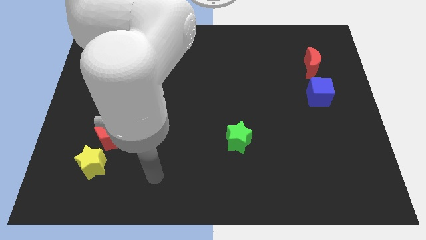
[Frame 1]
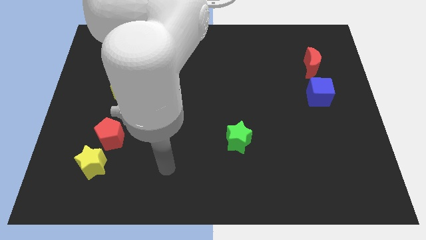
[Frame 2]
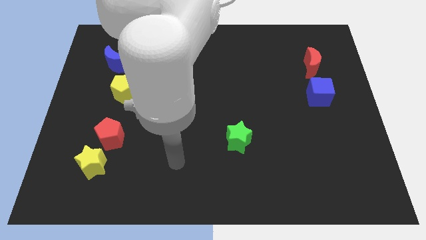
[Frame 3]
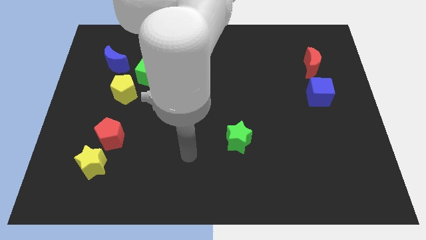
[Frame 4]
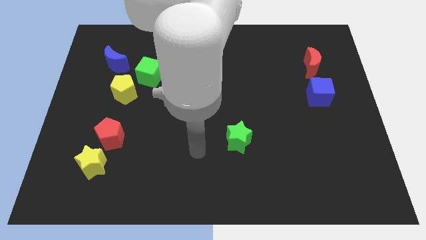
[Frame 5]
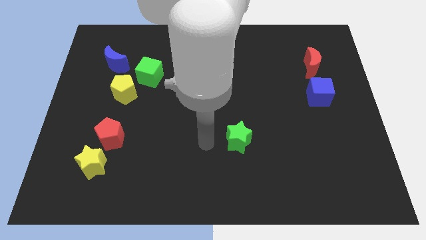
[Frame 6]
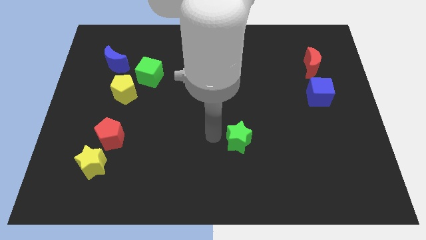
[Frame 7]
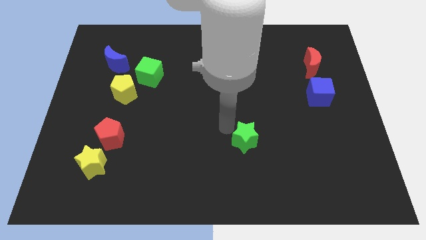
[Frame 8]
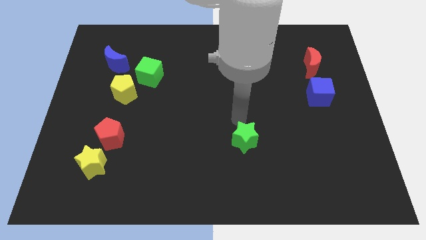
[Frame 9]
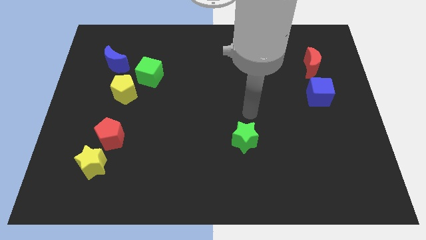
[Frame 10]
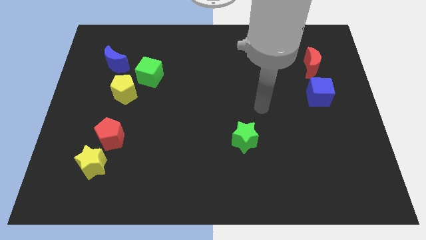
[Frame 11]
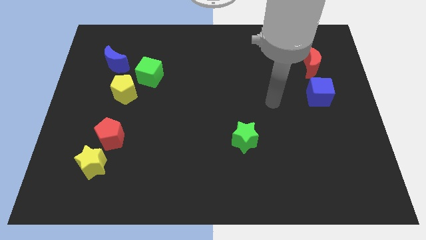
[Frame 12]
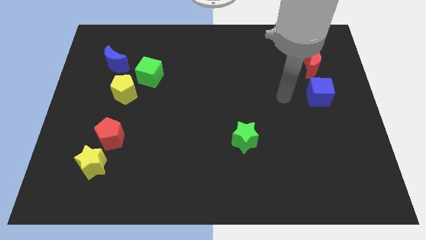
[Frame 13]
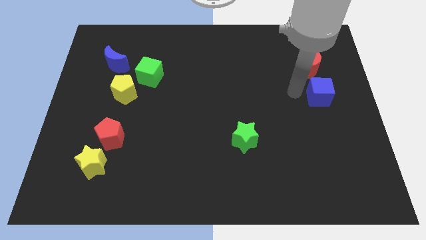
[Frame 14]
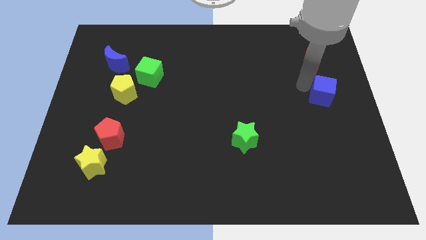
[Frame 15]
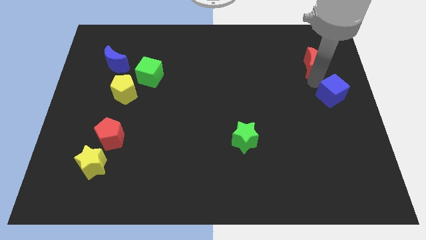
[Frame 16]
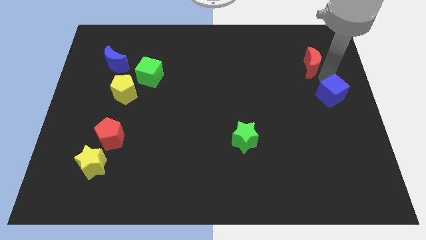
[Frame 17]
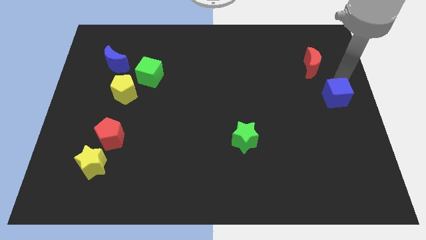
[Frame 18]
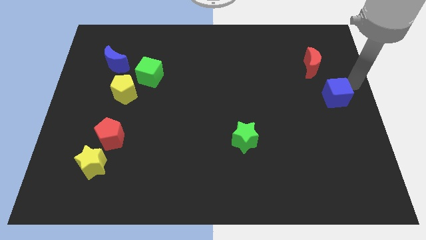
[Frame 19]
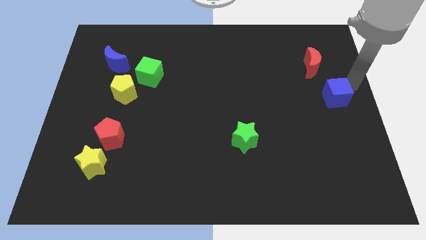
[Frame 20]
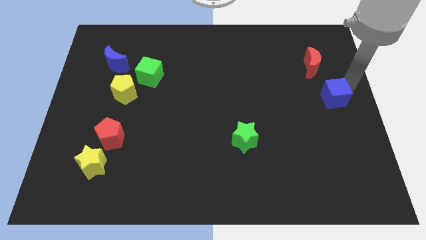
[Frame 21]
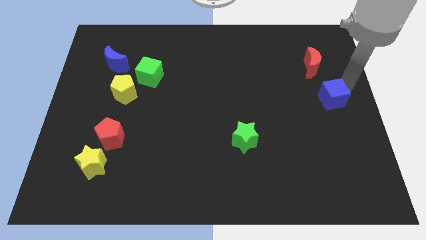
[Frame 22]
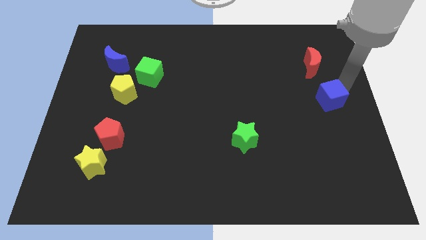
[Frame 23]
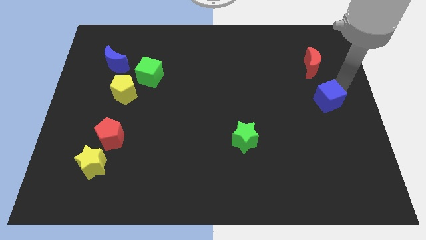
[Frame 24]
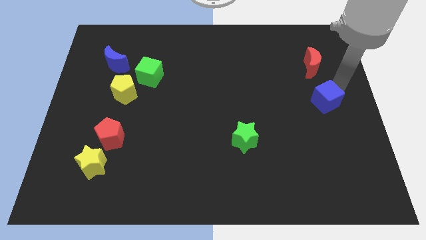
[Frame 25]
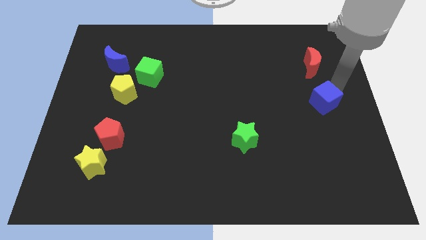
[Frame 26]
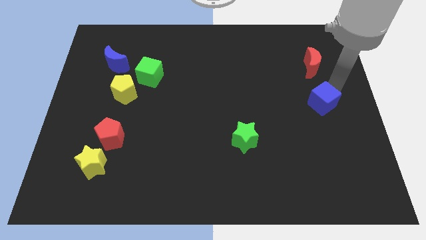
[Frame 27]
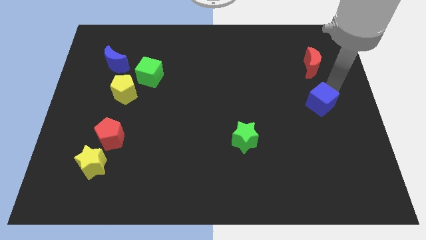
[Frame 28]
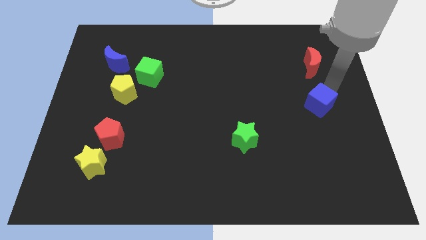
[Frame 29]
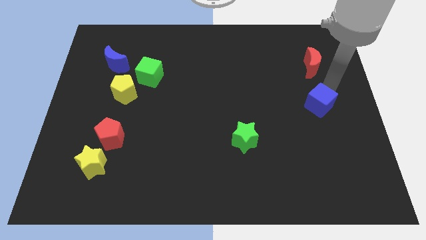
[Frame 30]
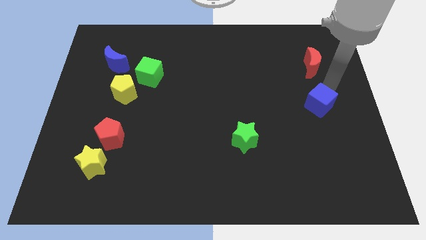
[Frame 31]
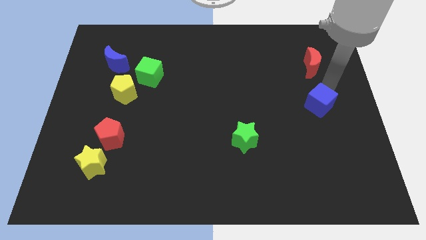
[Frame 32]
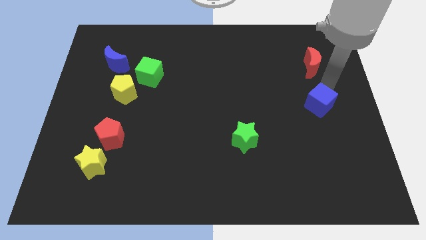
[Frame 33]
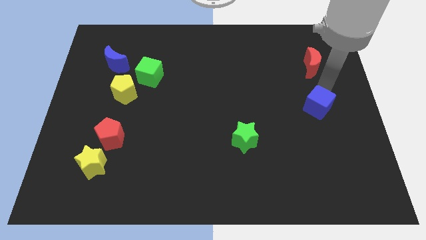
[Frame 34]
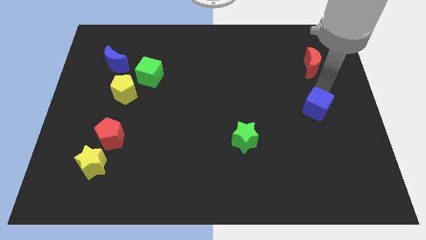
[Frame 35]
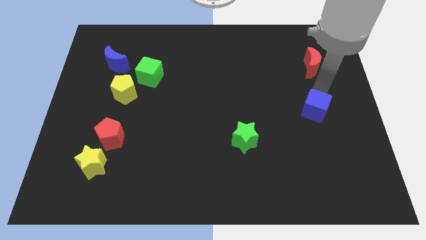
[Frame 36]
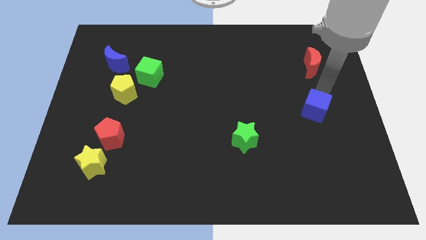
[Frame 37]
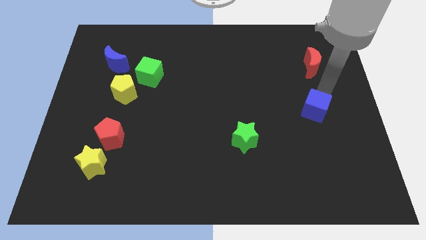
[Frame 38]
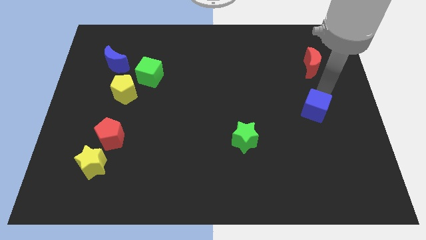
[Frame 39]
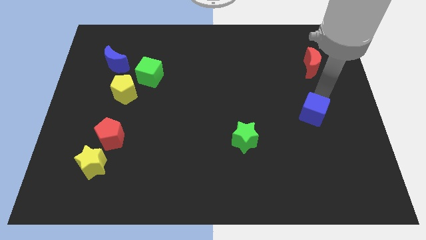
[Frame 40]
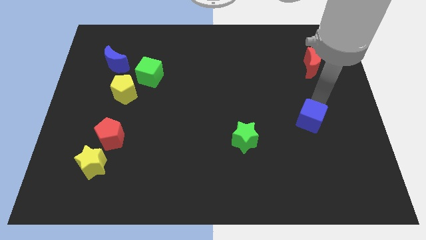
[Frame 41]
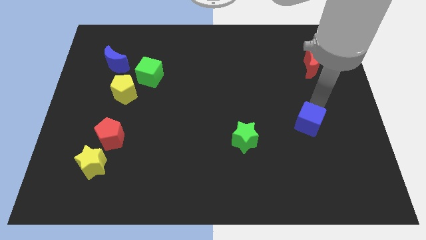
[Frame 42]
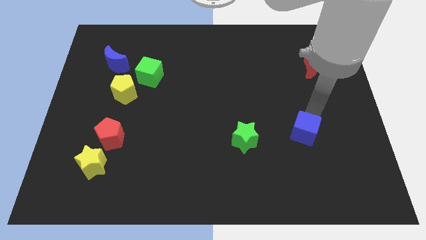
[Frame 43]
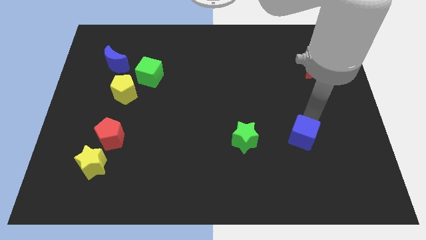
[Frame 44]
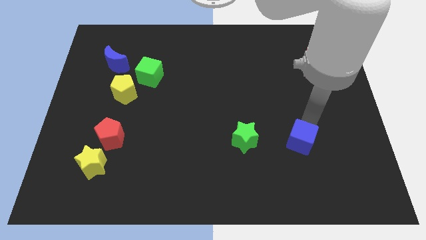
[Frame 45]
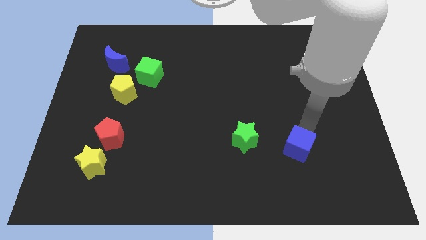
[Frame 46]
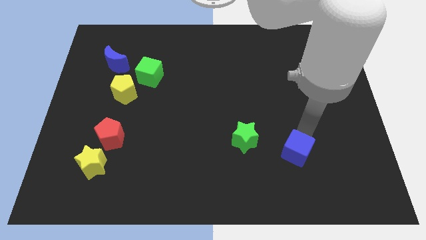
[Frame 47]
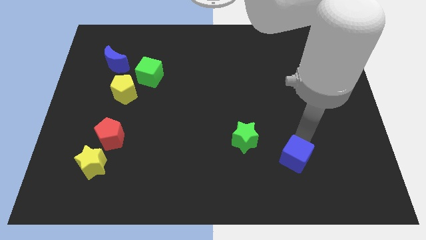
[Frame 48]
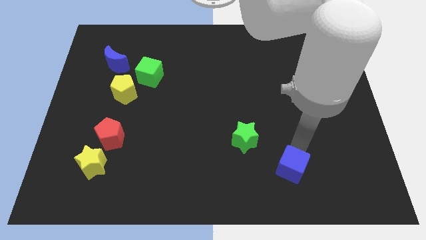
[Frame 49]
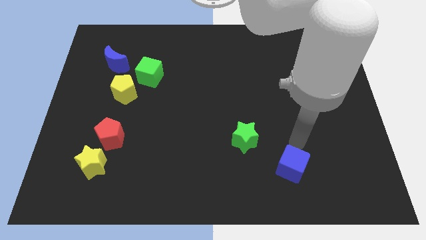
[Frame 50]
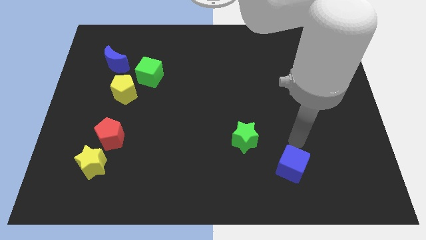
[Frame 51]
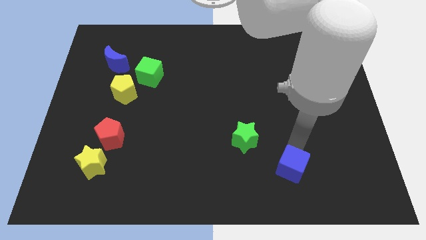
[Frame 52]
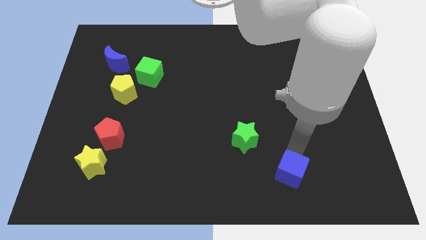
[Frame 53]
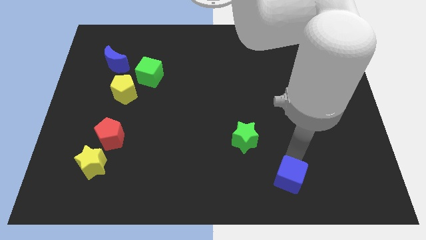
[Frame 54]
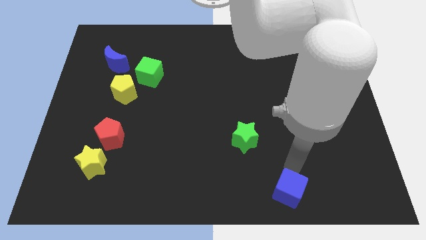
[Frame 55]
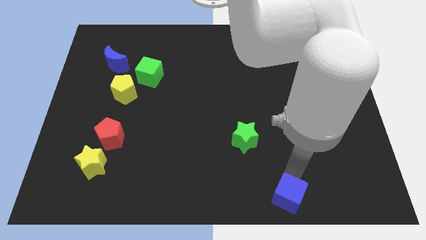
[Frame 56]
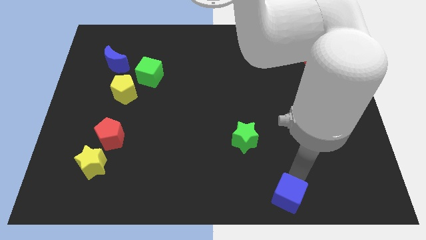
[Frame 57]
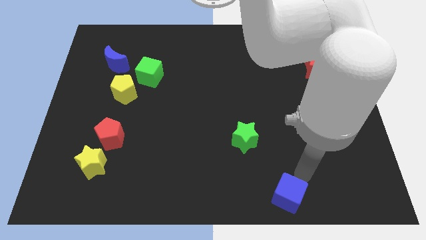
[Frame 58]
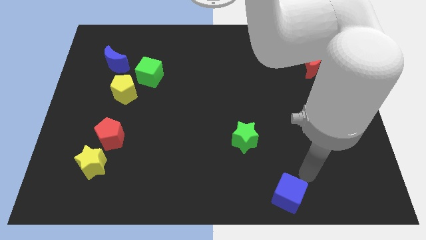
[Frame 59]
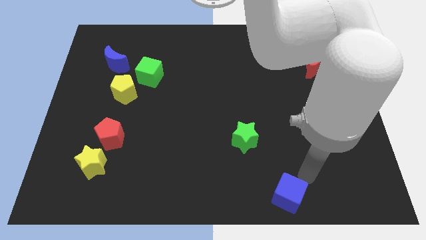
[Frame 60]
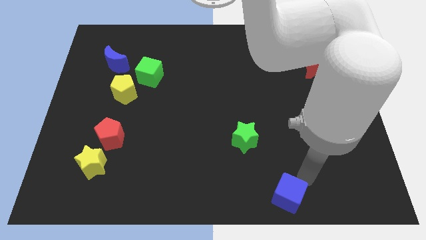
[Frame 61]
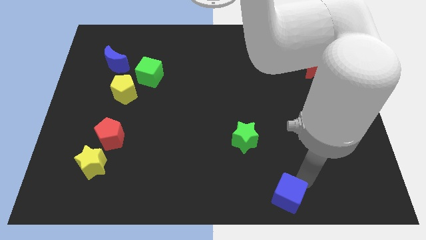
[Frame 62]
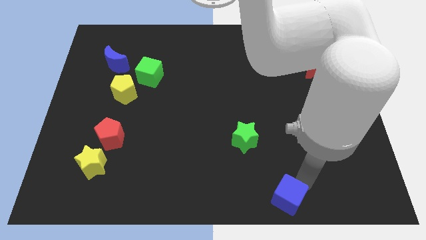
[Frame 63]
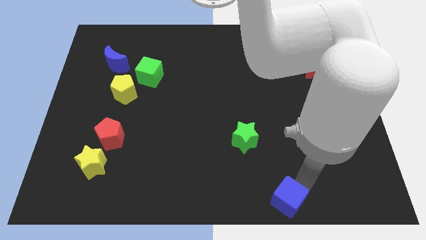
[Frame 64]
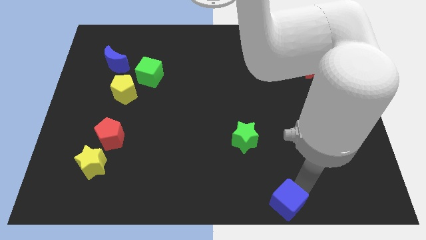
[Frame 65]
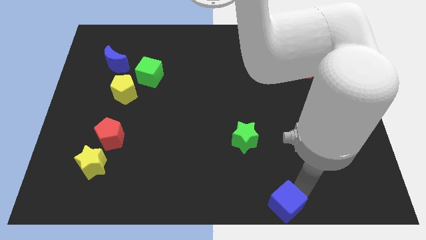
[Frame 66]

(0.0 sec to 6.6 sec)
move the blue cube to the bottom side

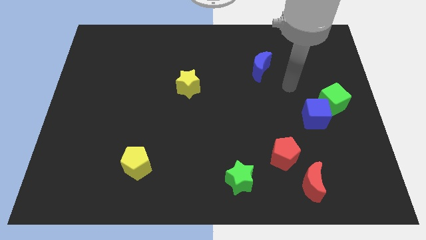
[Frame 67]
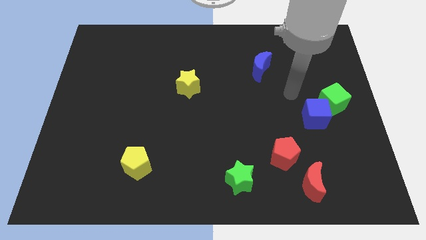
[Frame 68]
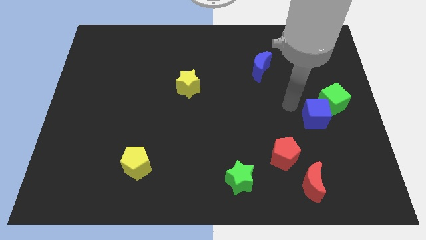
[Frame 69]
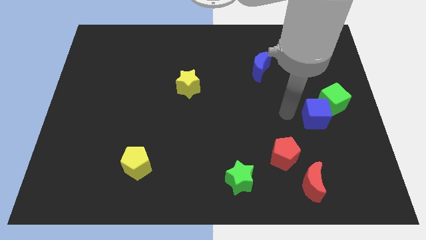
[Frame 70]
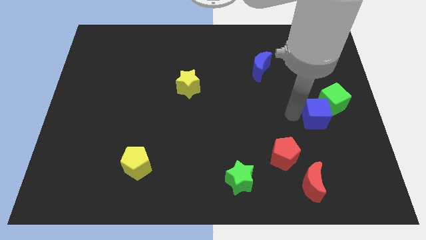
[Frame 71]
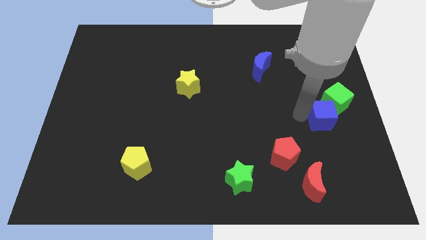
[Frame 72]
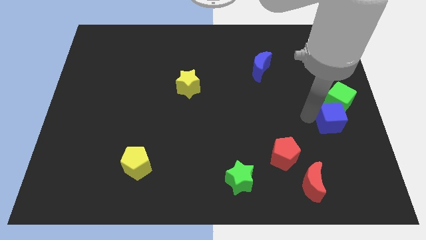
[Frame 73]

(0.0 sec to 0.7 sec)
move the blue cube to the right side of the board
